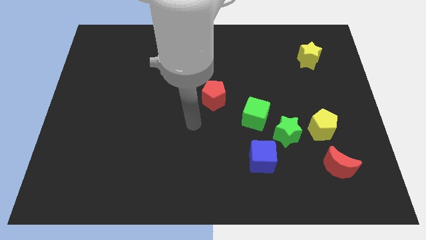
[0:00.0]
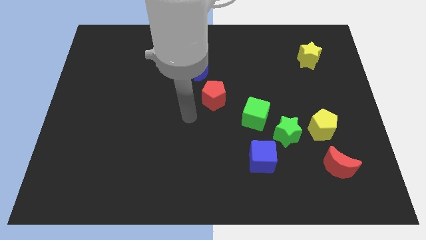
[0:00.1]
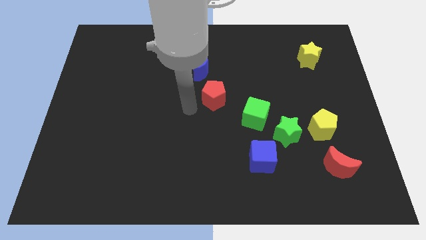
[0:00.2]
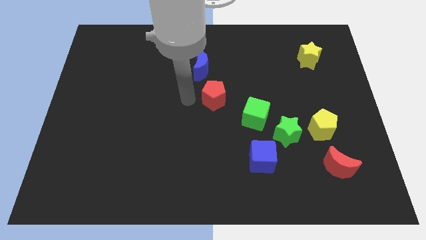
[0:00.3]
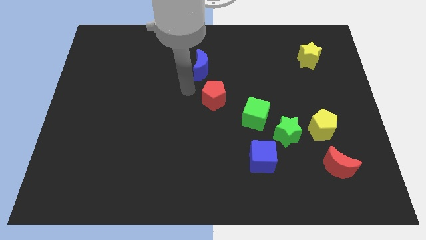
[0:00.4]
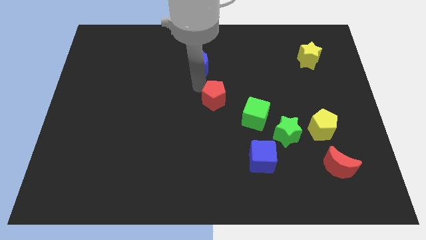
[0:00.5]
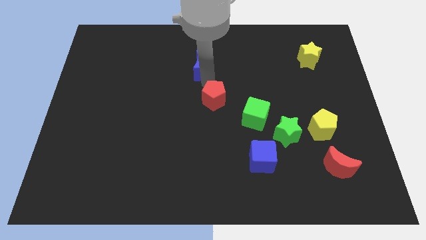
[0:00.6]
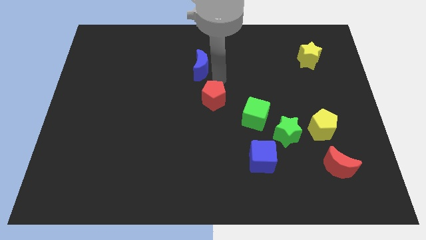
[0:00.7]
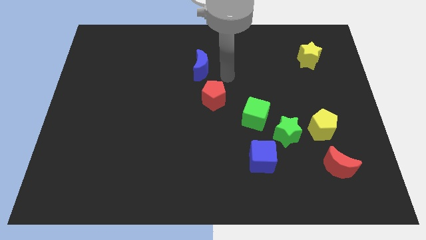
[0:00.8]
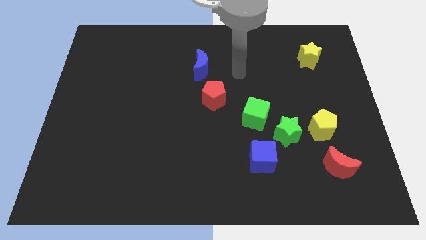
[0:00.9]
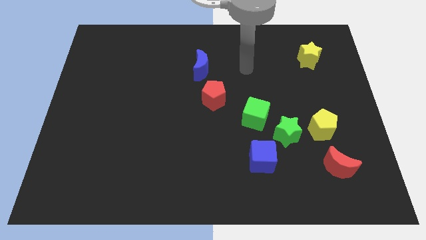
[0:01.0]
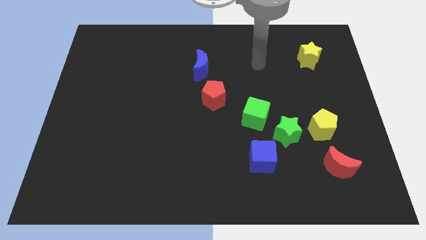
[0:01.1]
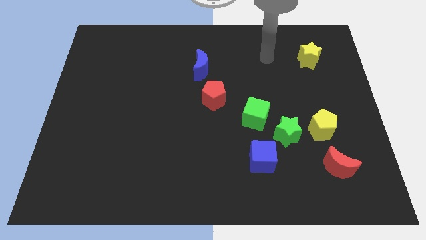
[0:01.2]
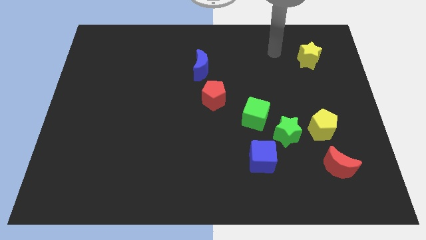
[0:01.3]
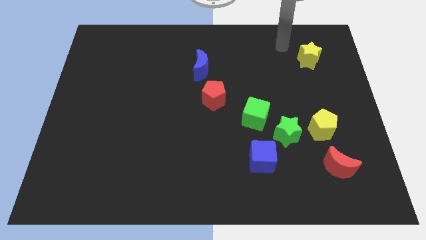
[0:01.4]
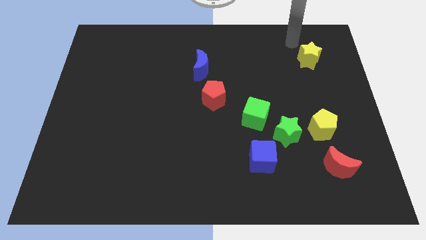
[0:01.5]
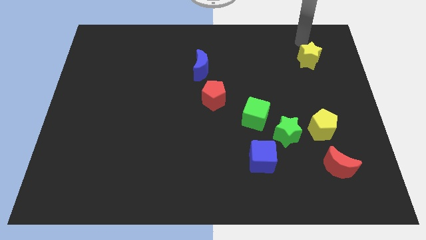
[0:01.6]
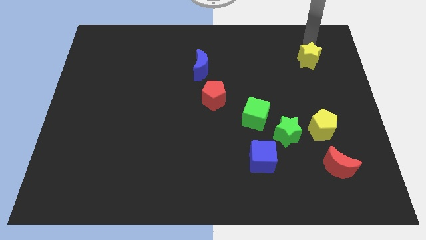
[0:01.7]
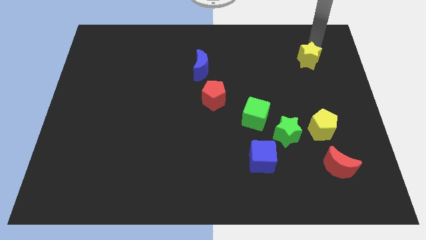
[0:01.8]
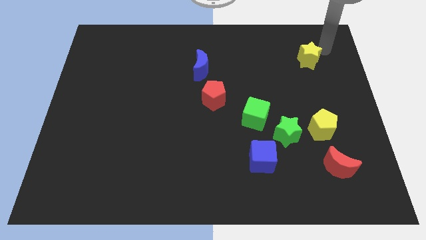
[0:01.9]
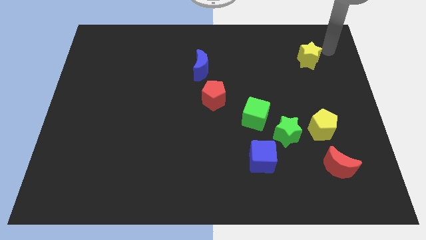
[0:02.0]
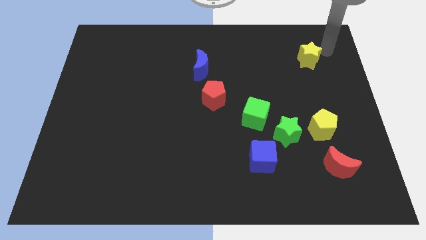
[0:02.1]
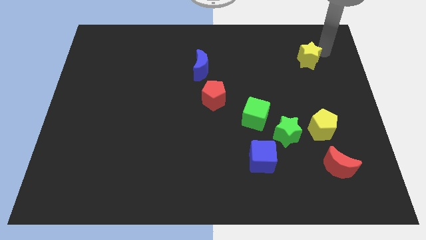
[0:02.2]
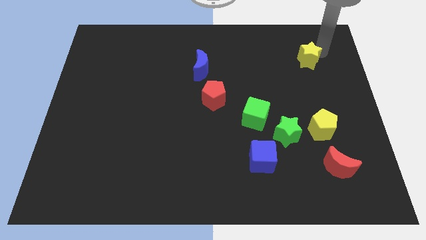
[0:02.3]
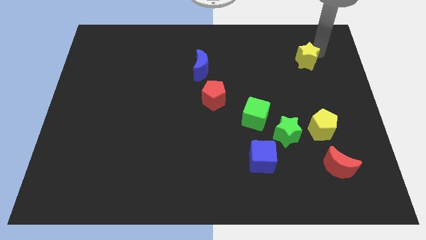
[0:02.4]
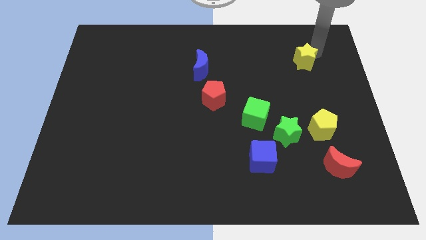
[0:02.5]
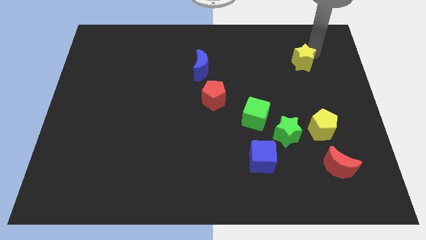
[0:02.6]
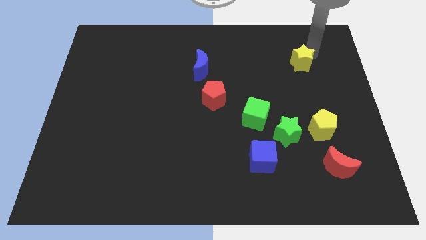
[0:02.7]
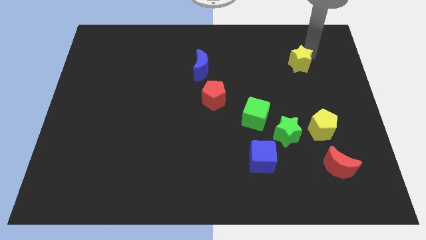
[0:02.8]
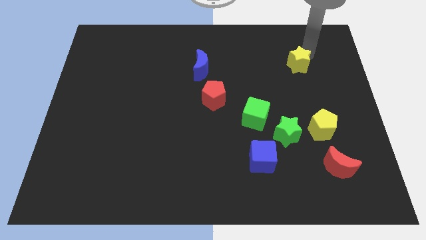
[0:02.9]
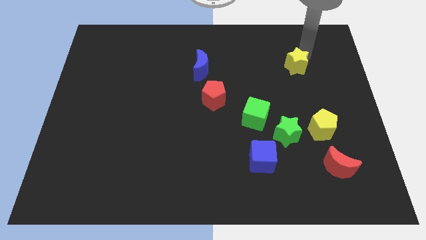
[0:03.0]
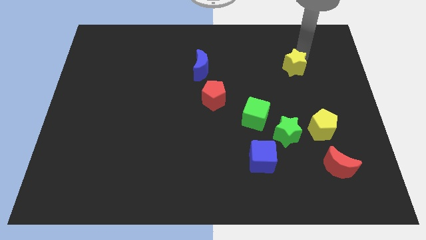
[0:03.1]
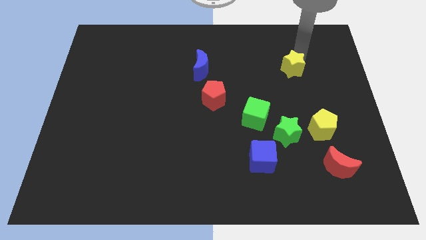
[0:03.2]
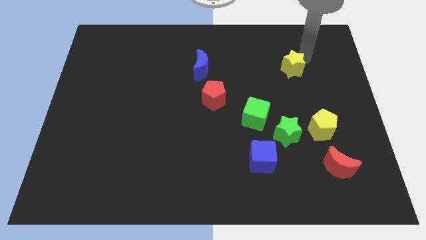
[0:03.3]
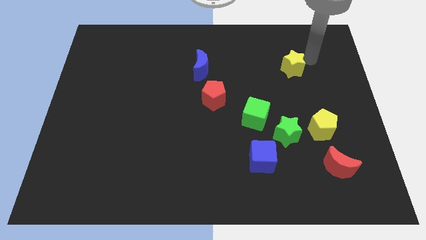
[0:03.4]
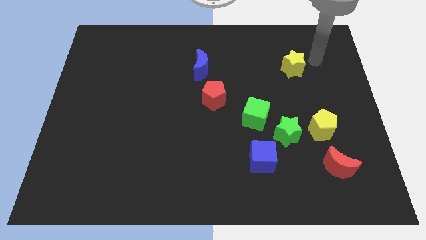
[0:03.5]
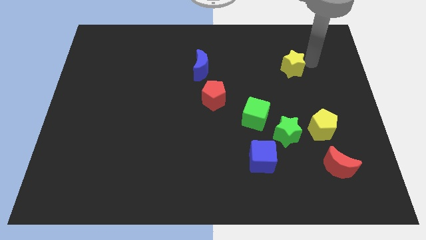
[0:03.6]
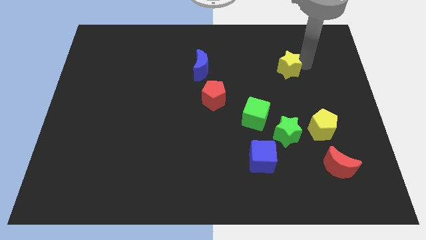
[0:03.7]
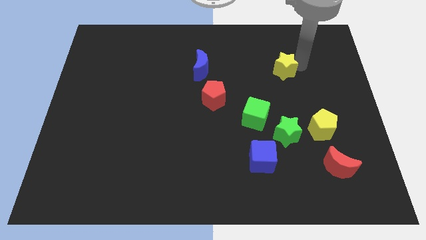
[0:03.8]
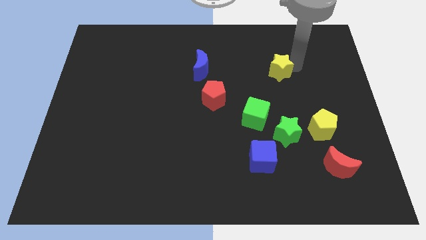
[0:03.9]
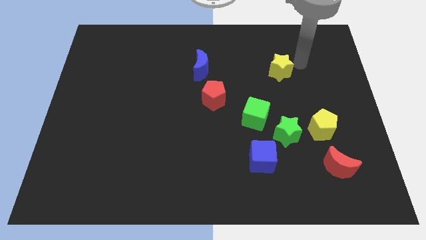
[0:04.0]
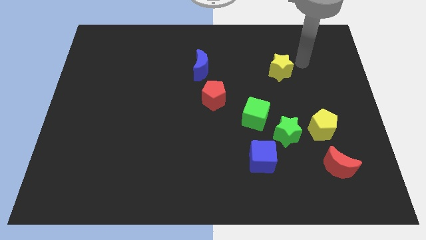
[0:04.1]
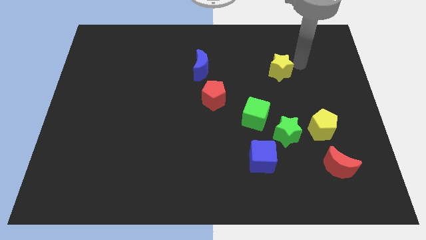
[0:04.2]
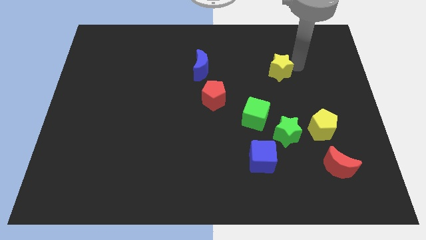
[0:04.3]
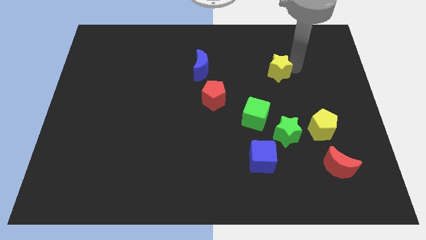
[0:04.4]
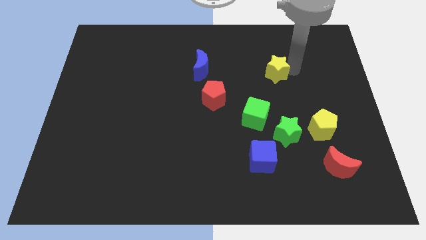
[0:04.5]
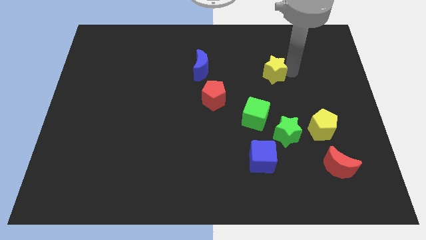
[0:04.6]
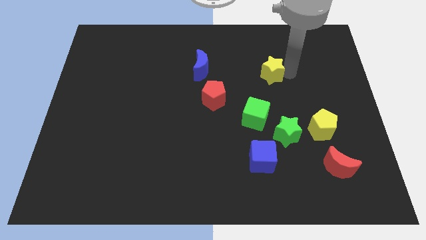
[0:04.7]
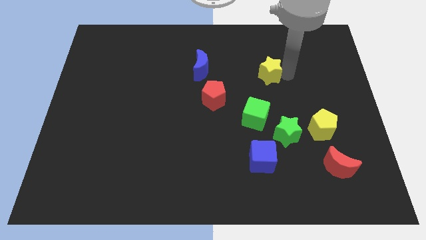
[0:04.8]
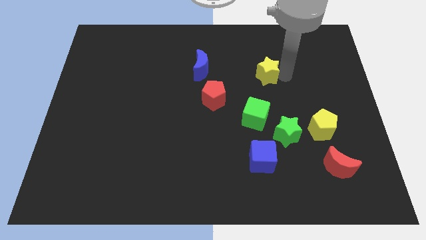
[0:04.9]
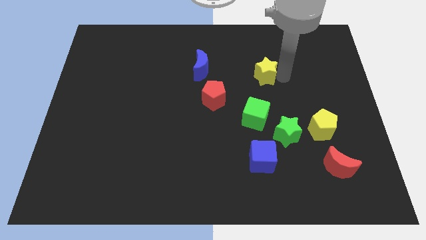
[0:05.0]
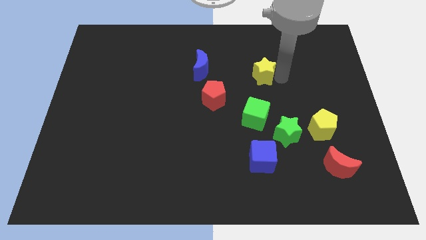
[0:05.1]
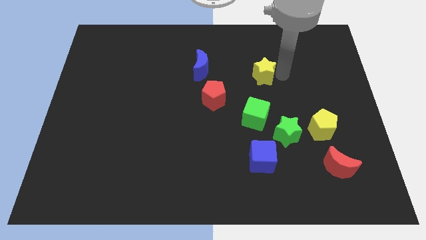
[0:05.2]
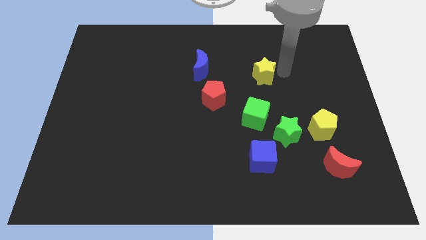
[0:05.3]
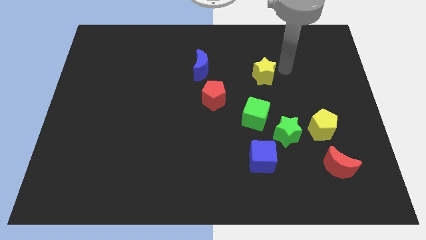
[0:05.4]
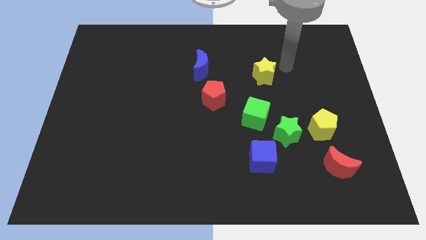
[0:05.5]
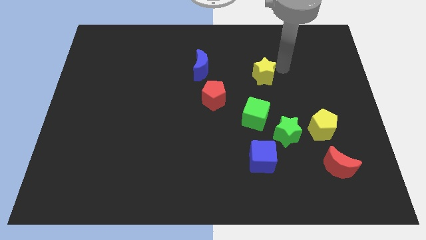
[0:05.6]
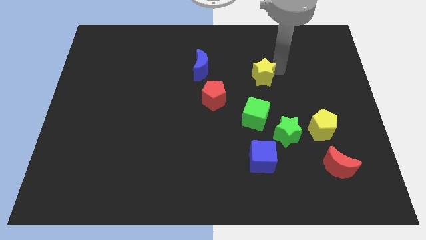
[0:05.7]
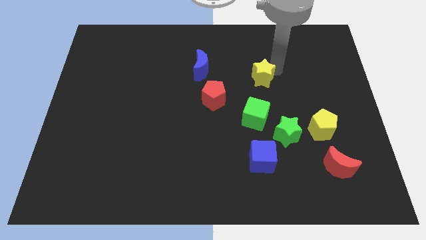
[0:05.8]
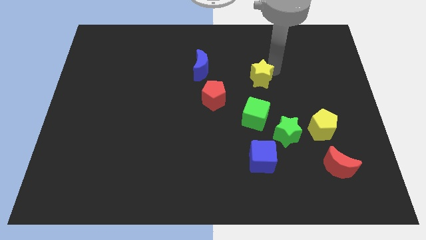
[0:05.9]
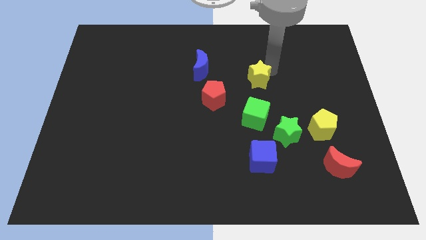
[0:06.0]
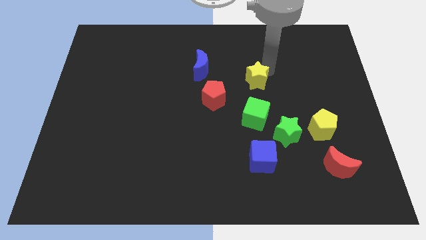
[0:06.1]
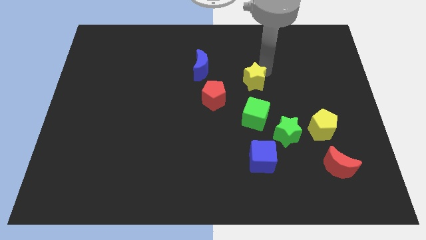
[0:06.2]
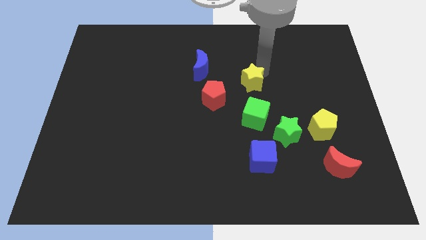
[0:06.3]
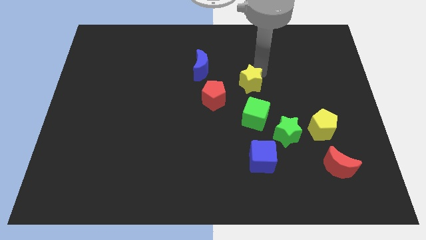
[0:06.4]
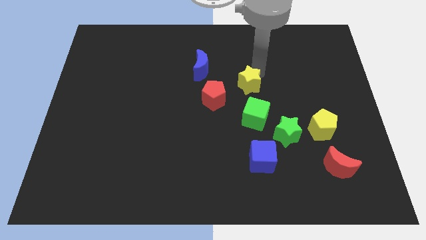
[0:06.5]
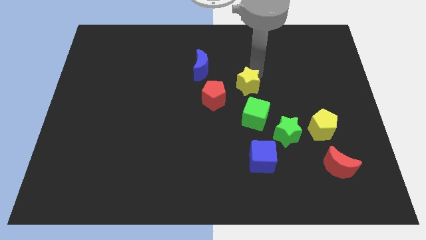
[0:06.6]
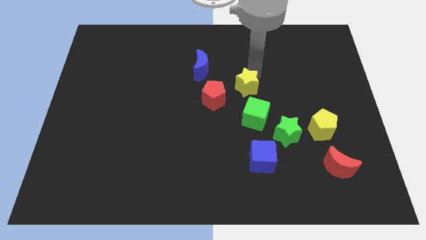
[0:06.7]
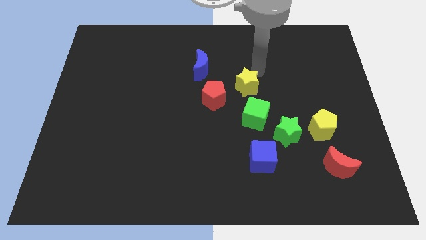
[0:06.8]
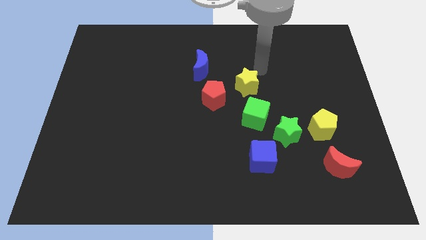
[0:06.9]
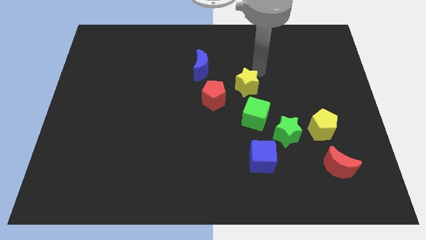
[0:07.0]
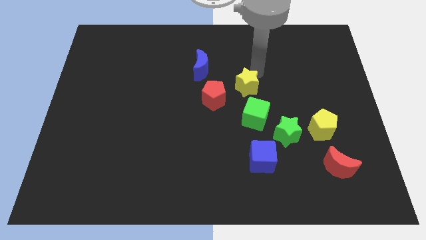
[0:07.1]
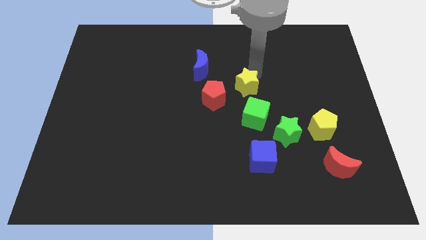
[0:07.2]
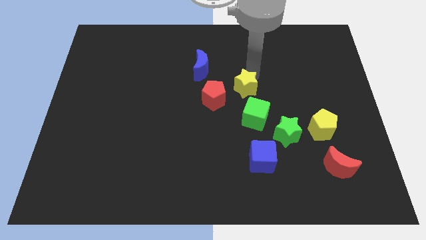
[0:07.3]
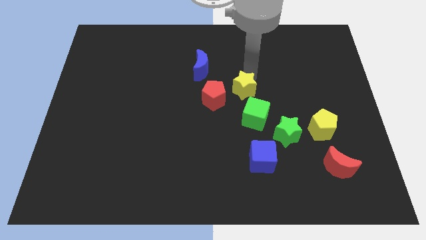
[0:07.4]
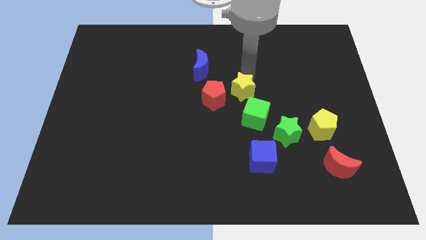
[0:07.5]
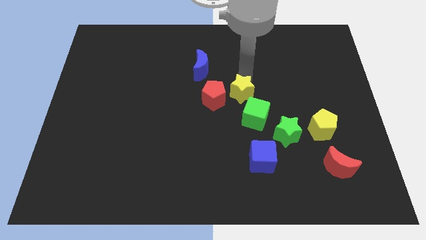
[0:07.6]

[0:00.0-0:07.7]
move the yellow star down and then to the left
